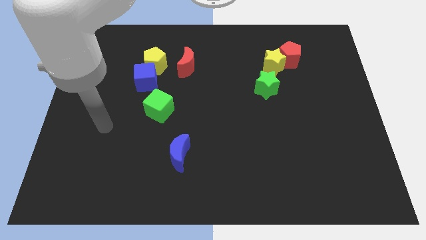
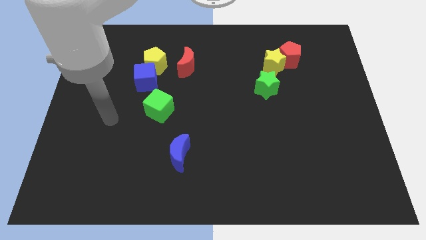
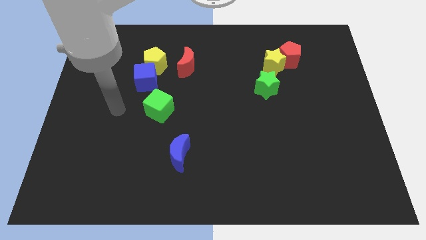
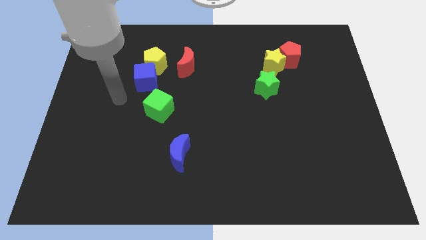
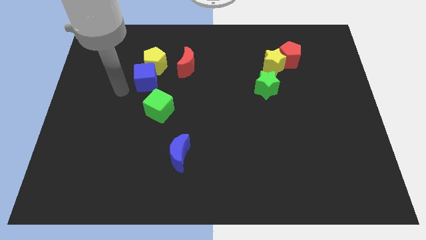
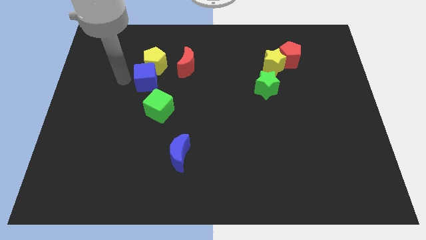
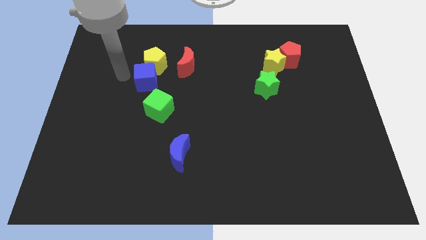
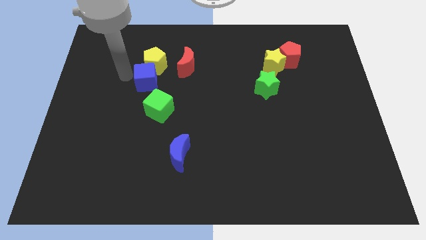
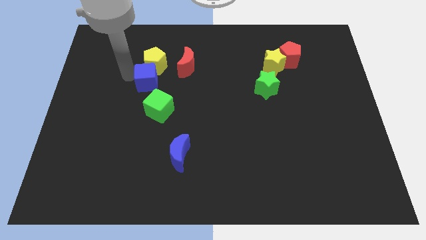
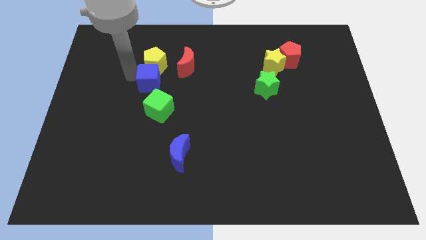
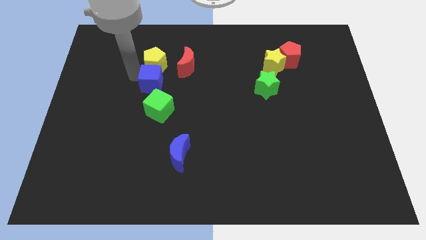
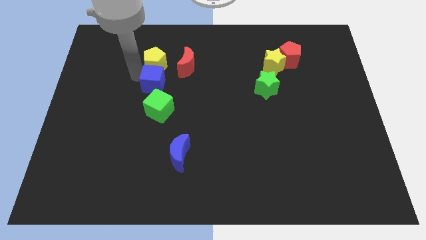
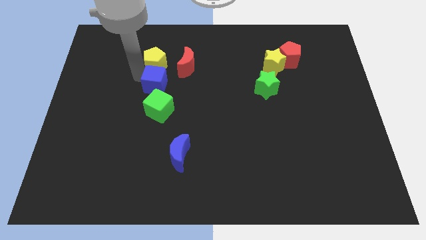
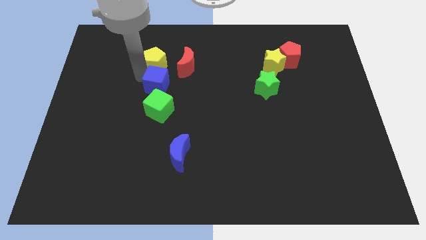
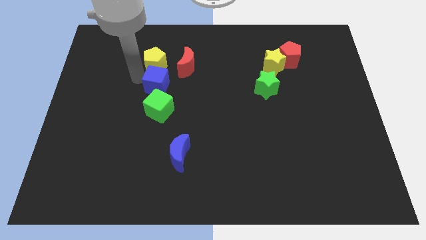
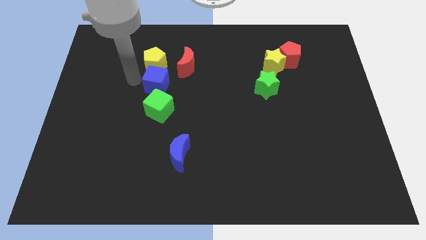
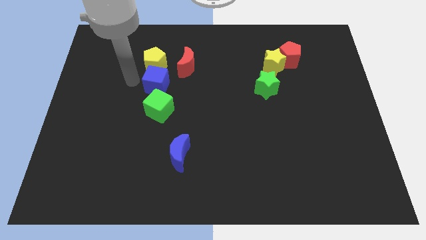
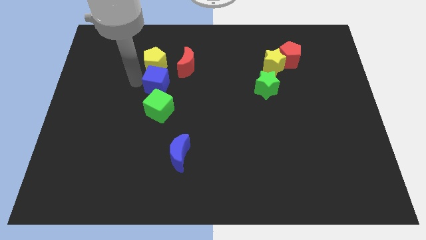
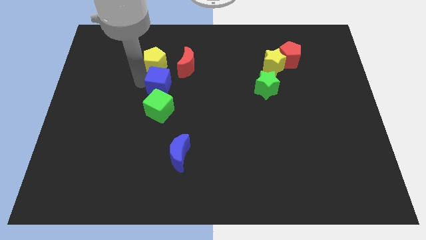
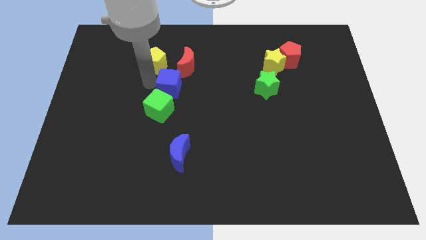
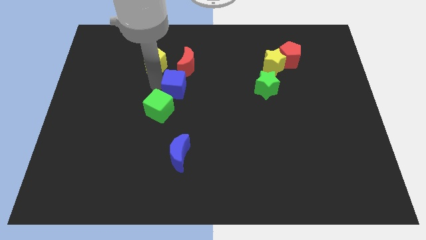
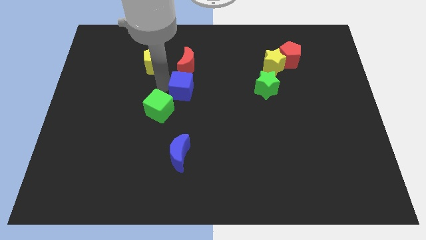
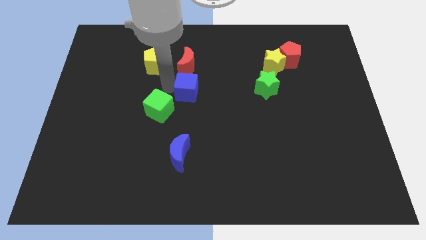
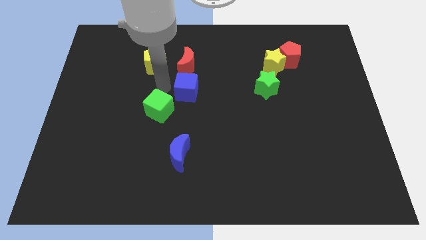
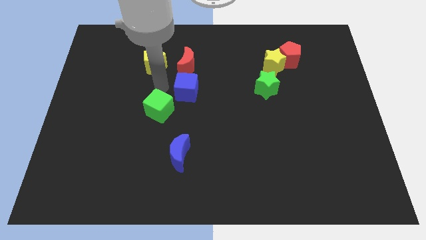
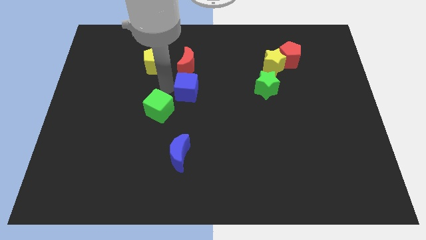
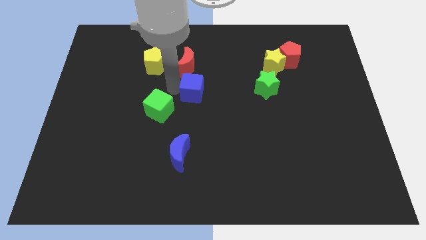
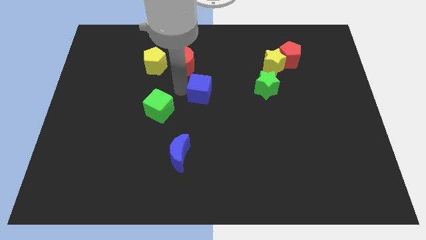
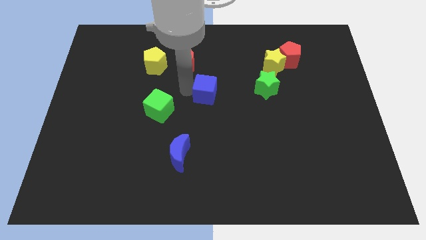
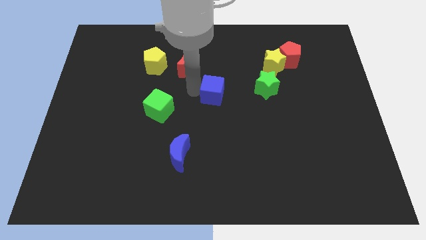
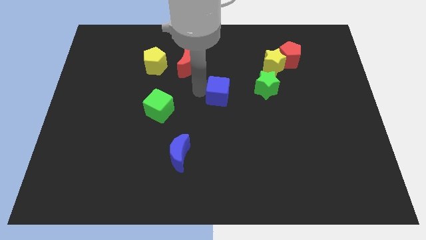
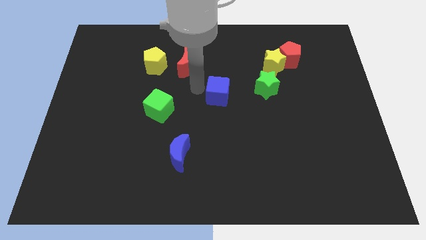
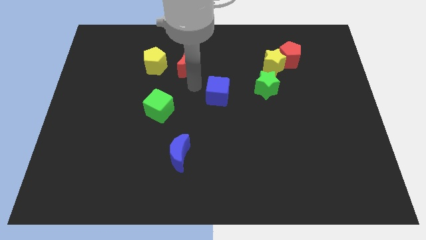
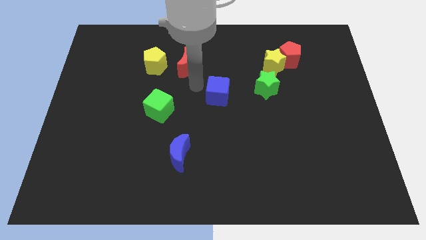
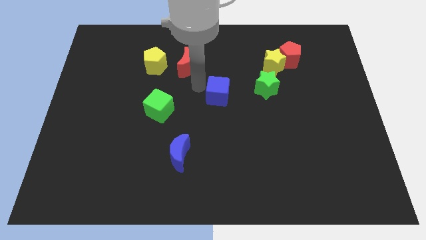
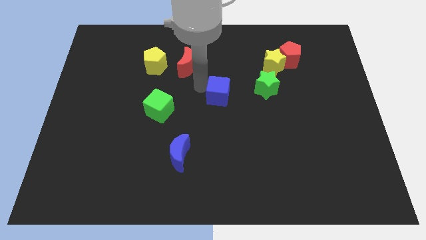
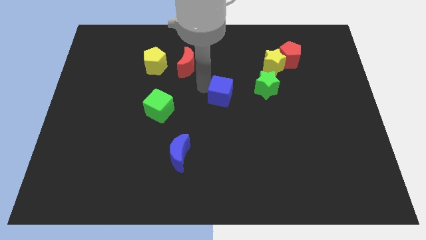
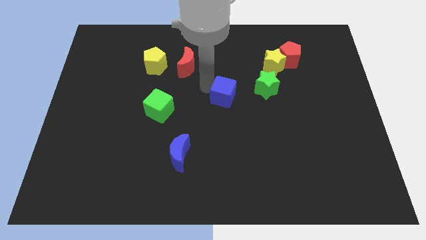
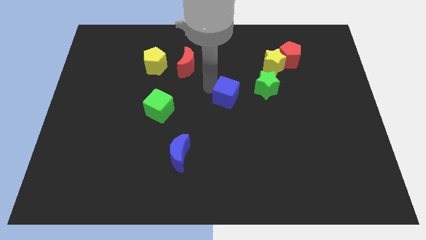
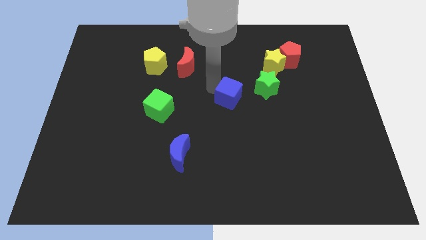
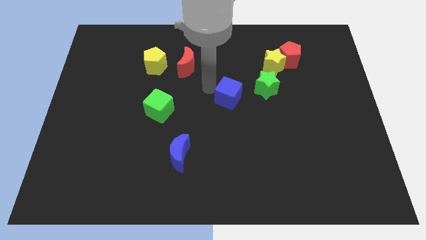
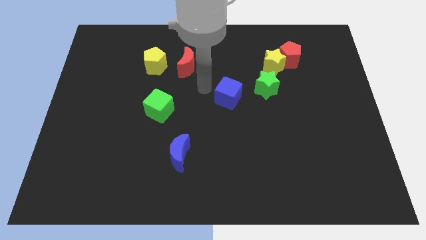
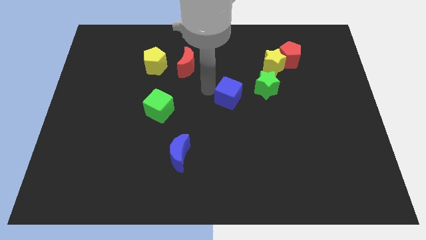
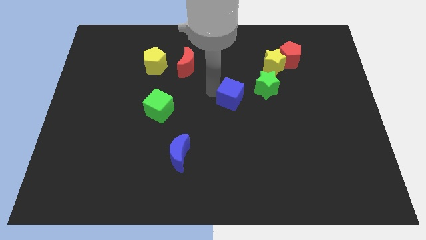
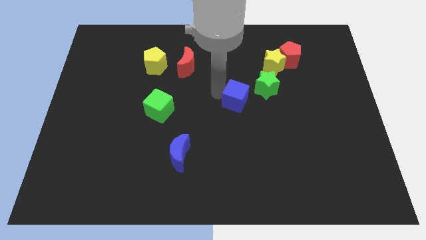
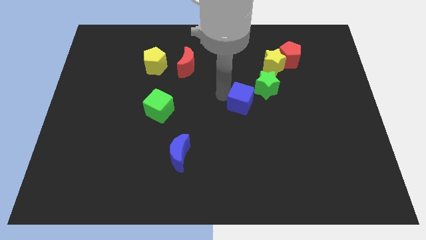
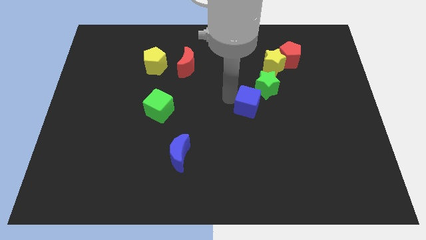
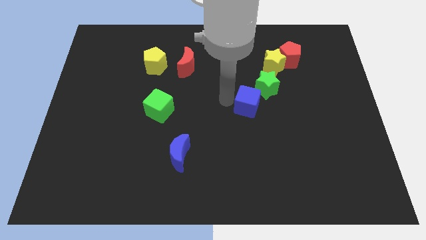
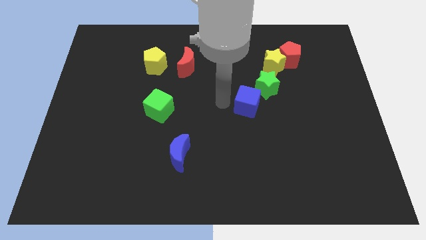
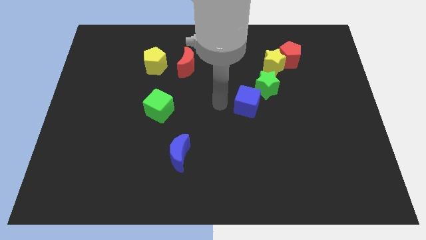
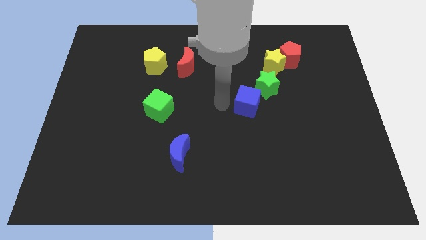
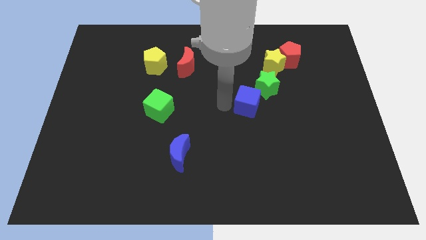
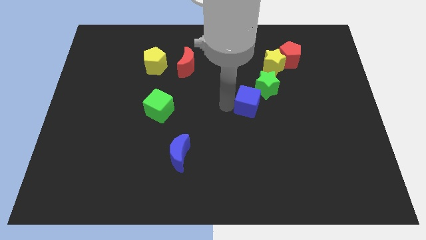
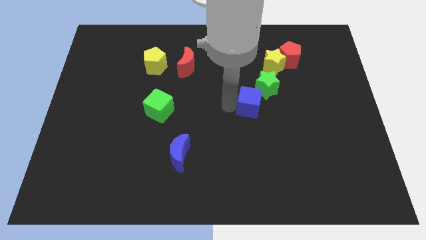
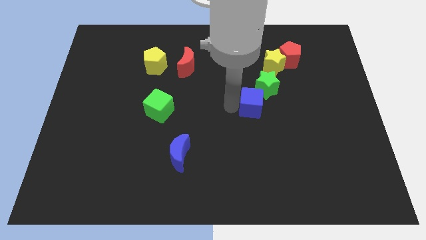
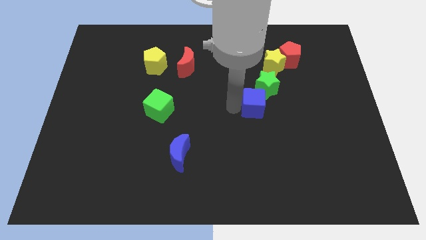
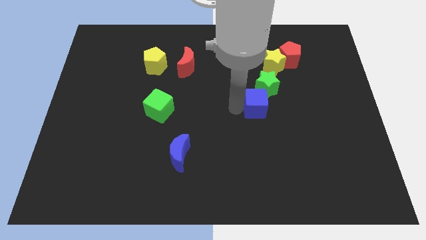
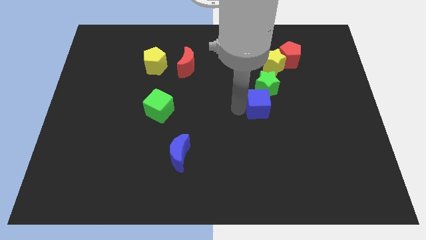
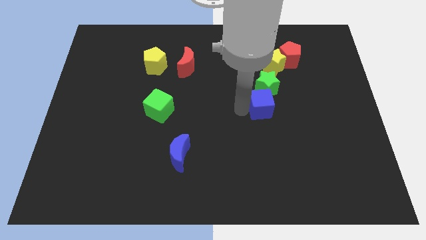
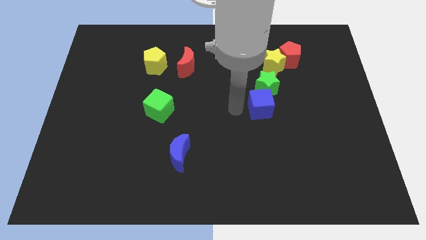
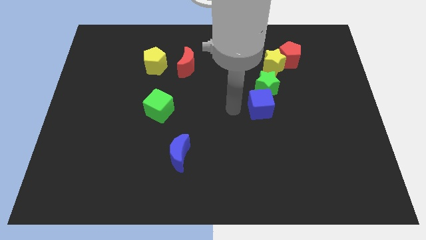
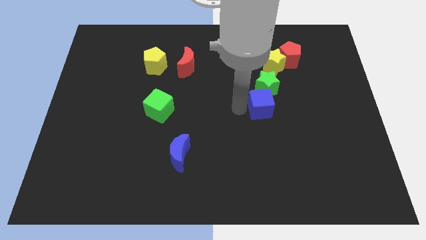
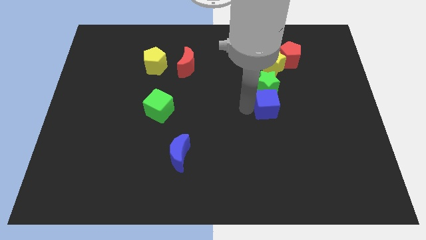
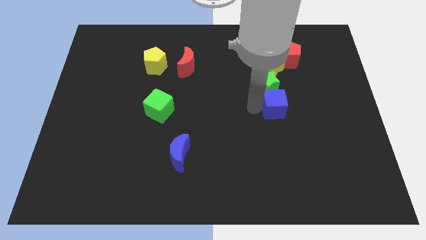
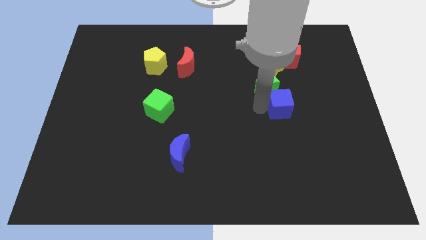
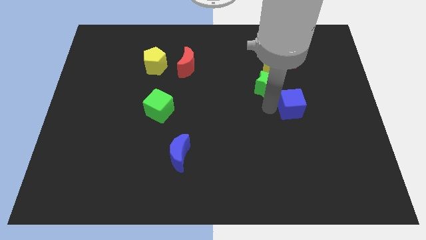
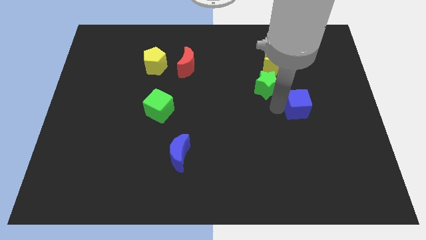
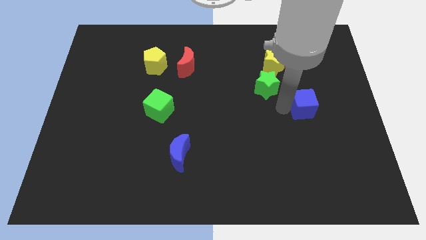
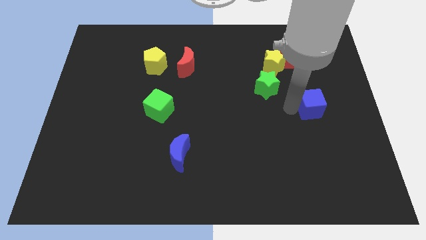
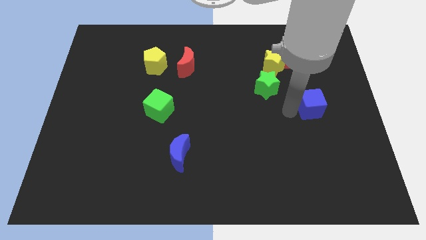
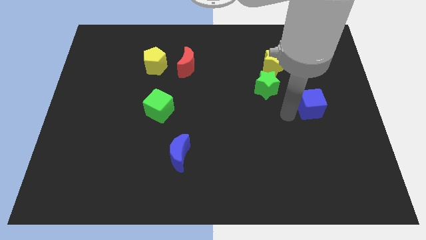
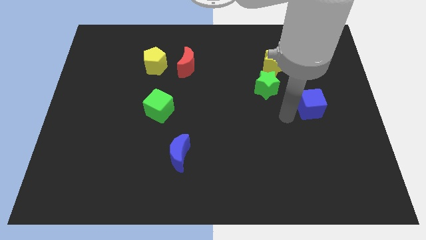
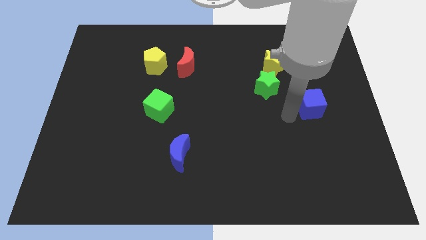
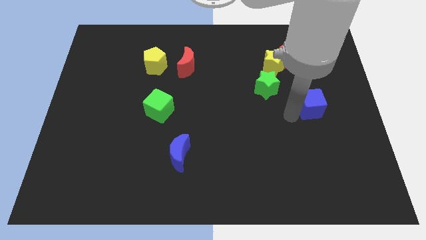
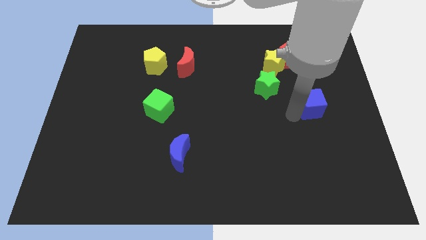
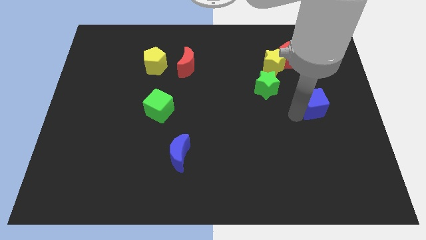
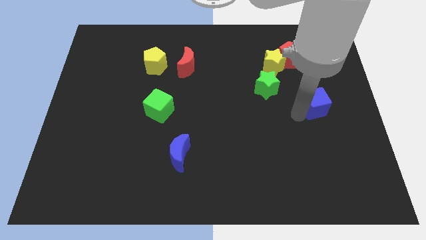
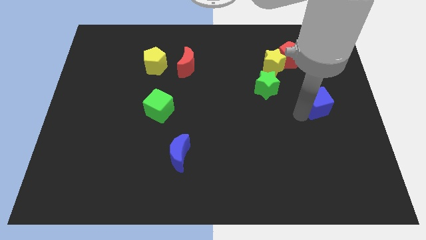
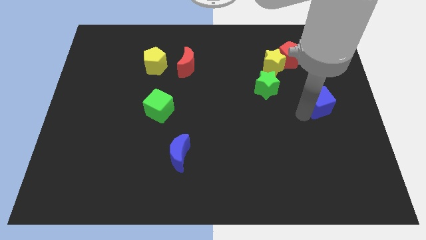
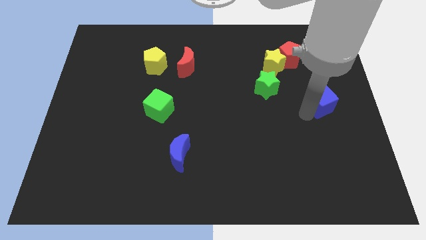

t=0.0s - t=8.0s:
push the blue cube to the right side
